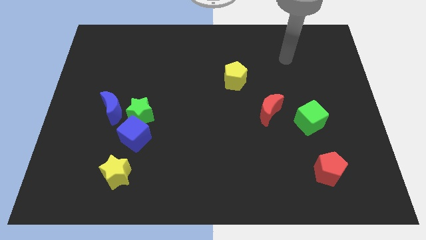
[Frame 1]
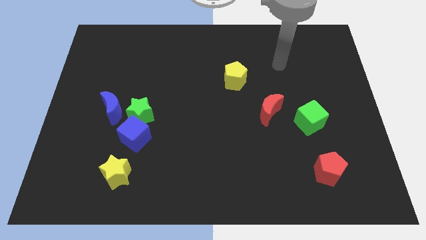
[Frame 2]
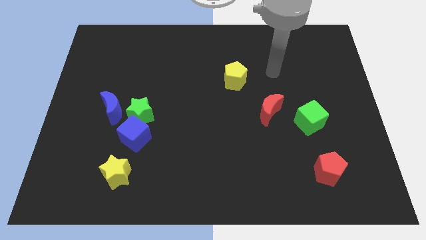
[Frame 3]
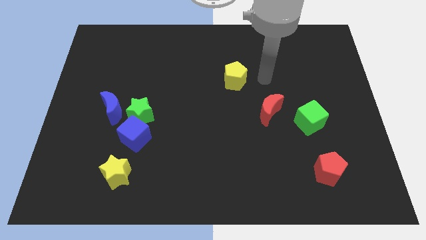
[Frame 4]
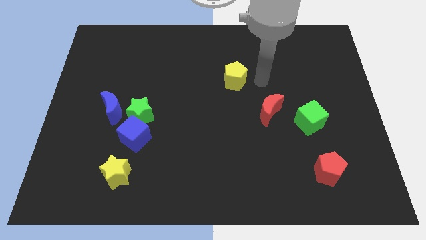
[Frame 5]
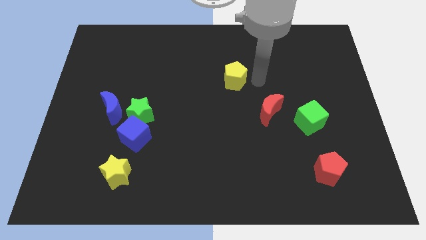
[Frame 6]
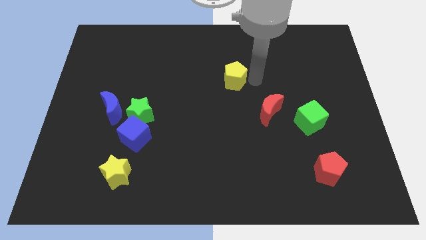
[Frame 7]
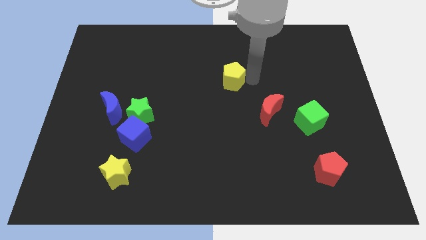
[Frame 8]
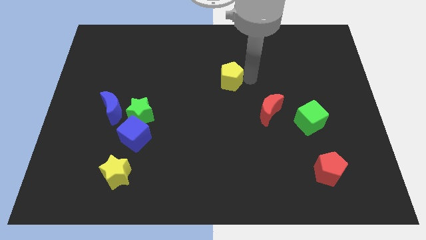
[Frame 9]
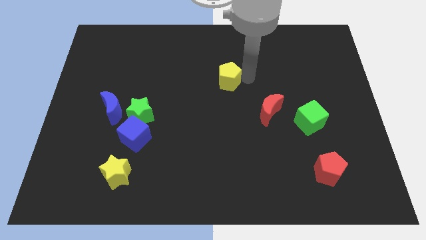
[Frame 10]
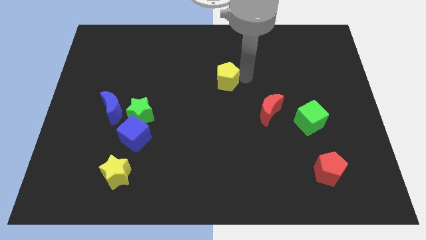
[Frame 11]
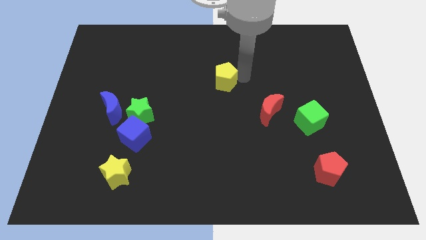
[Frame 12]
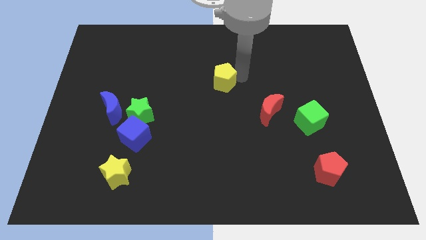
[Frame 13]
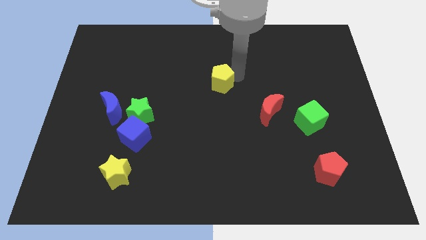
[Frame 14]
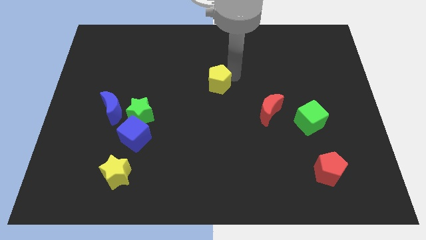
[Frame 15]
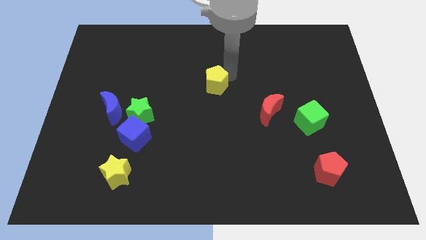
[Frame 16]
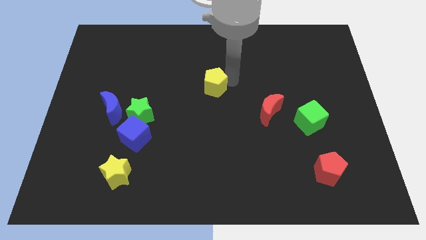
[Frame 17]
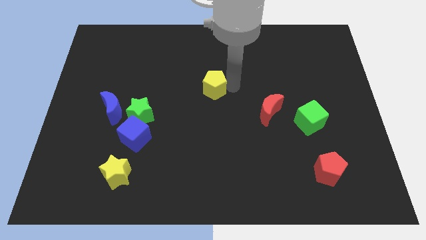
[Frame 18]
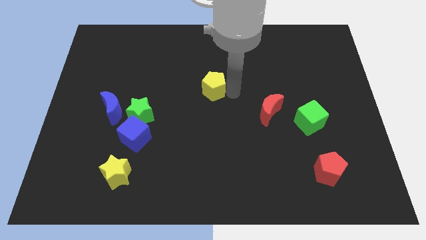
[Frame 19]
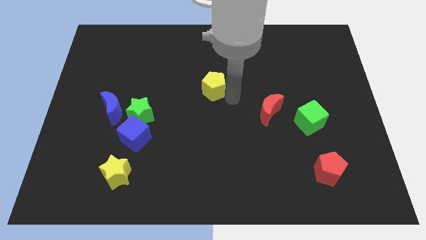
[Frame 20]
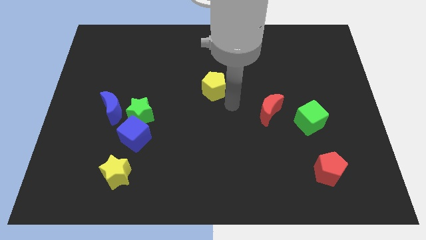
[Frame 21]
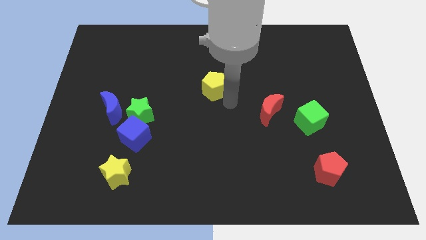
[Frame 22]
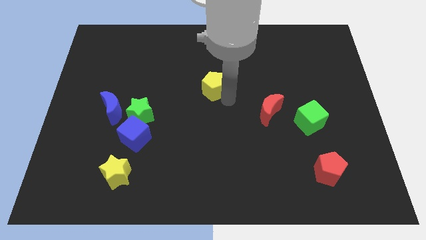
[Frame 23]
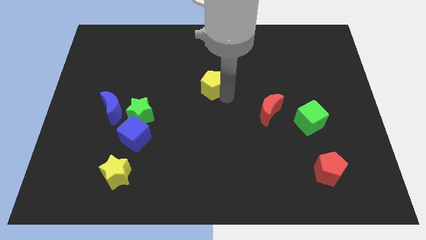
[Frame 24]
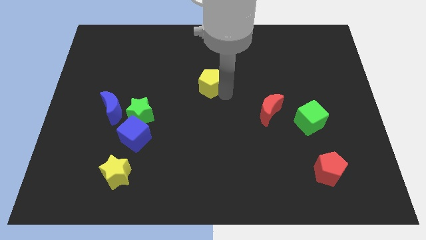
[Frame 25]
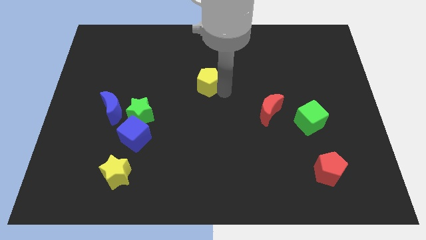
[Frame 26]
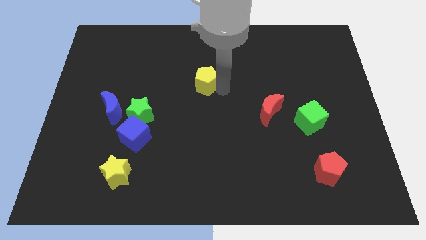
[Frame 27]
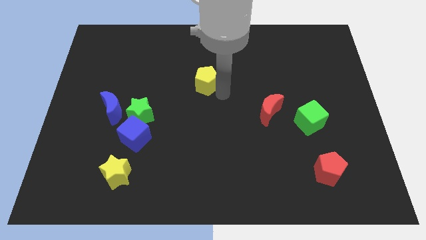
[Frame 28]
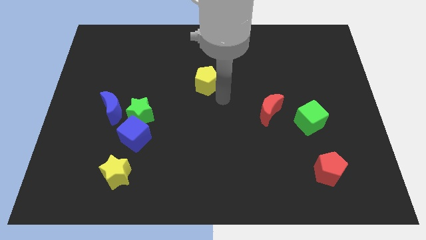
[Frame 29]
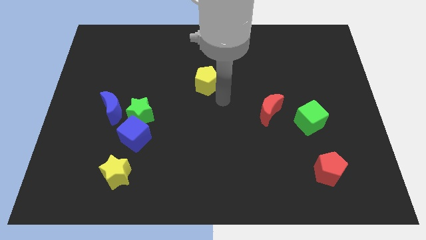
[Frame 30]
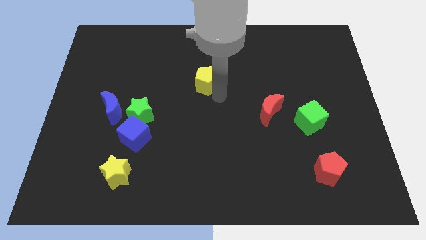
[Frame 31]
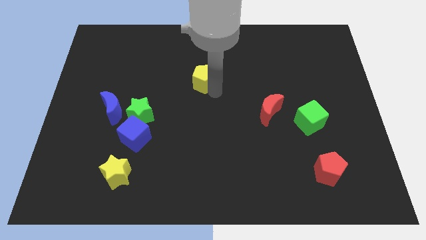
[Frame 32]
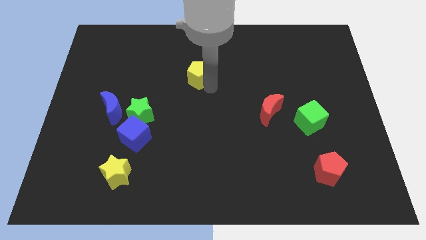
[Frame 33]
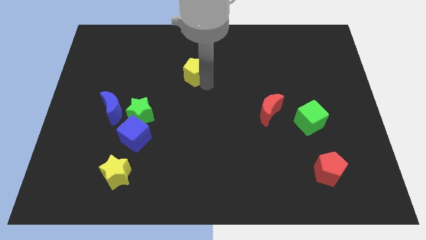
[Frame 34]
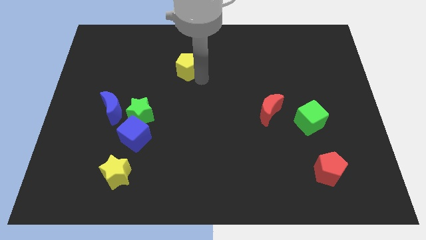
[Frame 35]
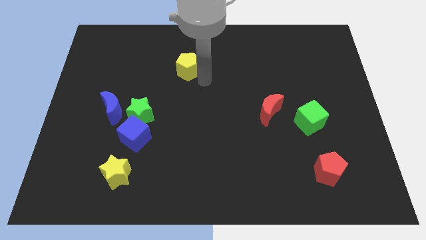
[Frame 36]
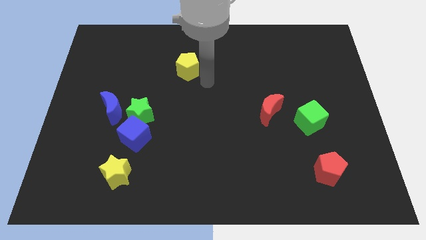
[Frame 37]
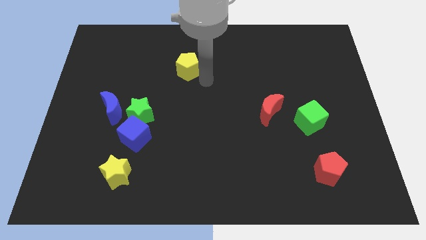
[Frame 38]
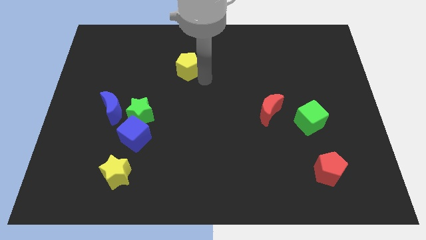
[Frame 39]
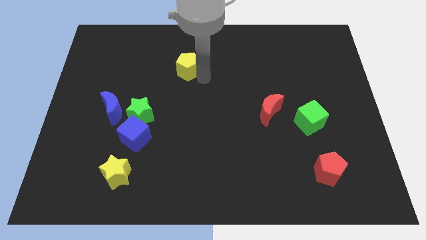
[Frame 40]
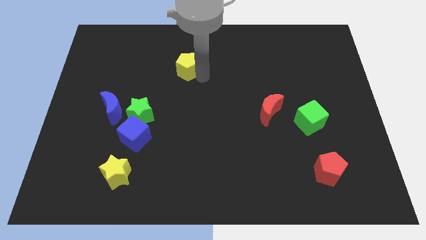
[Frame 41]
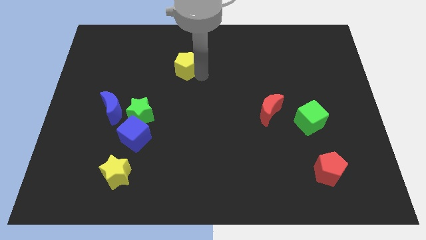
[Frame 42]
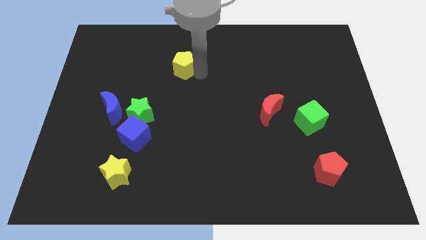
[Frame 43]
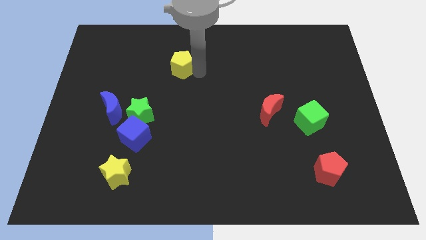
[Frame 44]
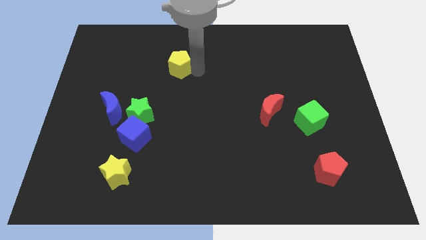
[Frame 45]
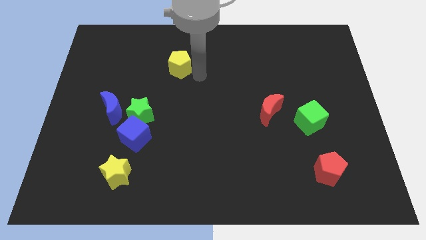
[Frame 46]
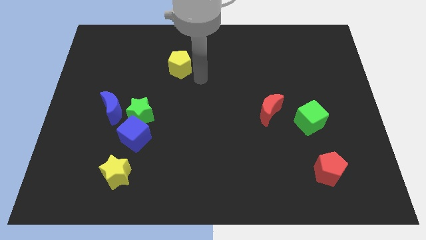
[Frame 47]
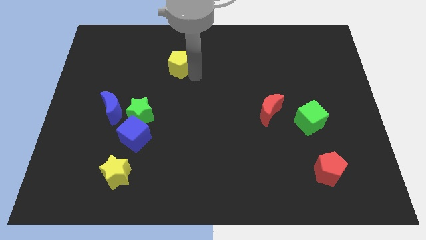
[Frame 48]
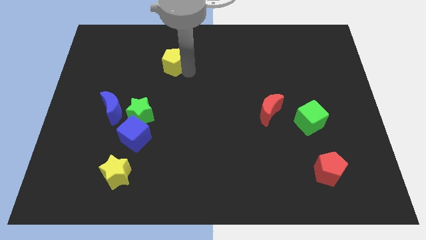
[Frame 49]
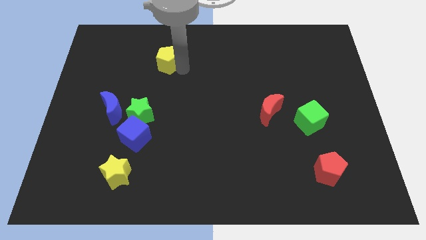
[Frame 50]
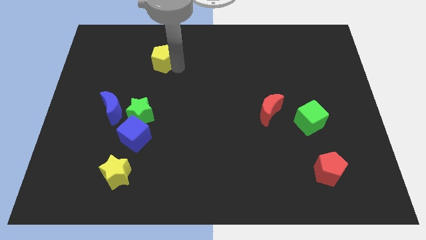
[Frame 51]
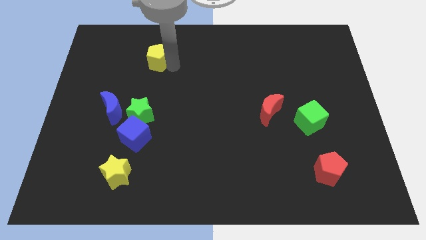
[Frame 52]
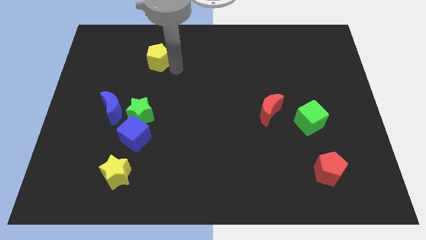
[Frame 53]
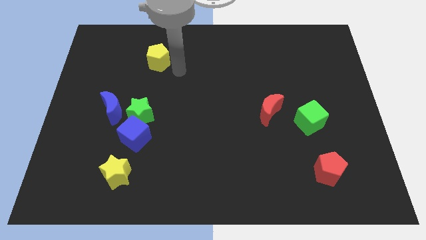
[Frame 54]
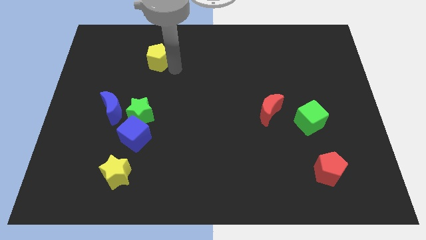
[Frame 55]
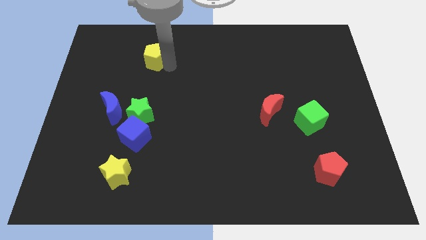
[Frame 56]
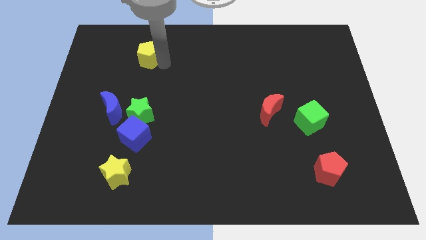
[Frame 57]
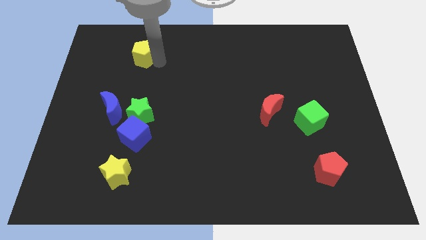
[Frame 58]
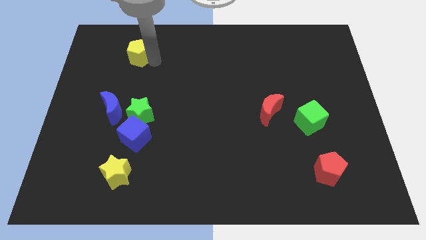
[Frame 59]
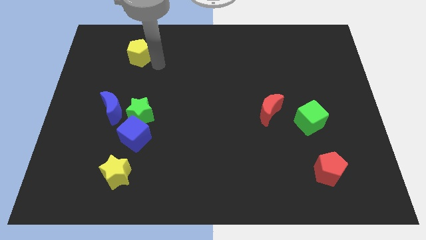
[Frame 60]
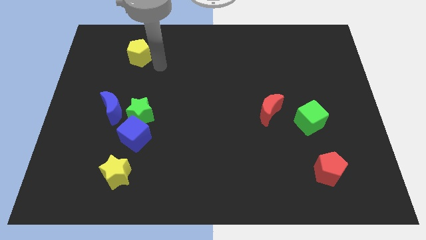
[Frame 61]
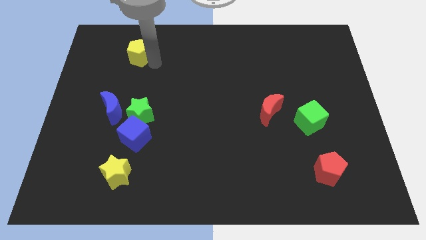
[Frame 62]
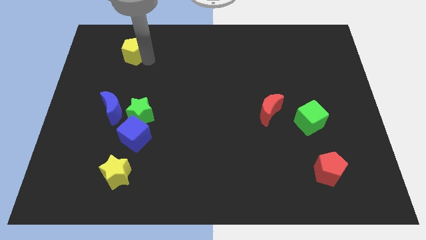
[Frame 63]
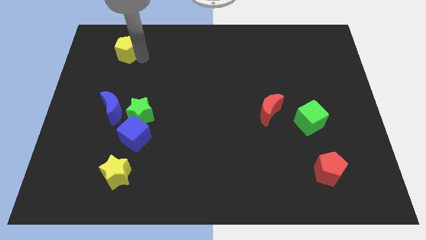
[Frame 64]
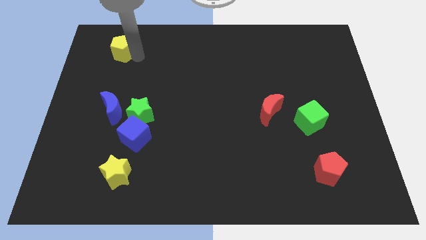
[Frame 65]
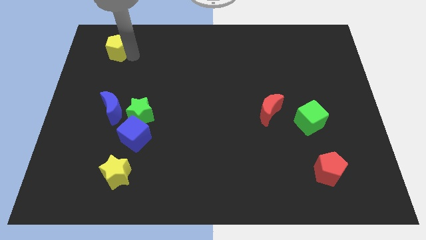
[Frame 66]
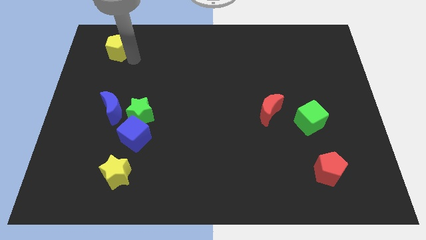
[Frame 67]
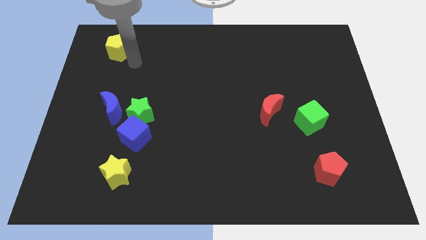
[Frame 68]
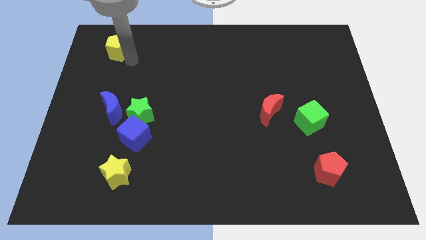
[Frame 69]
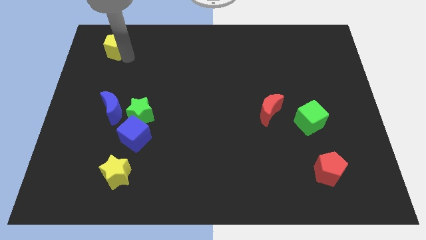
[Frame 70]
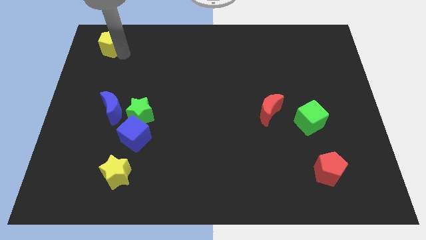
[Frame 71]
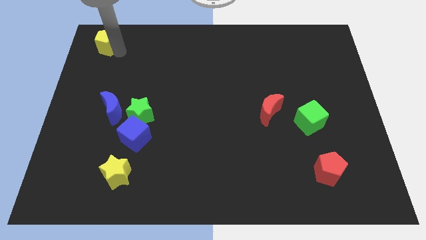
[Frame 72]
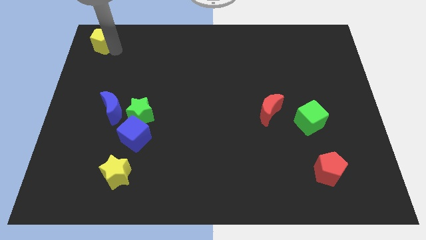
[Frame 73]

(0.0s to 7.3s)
move the yellow pentagon to the top left
